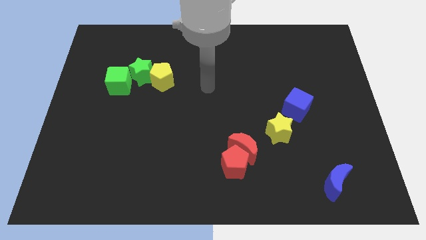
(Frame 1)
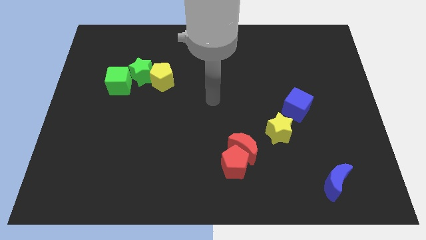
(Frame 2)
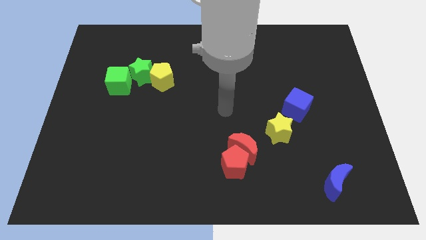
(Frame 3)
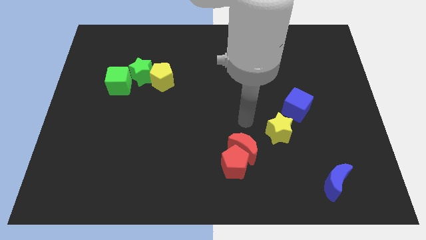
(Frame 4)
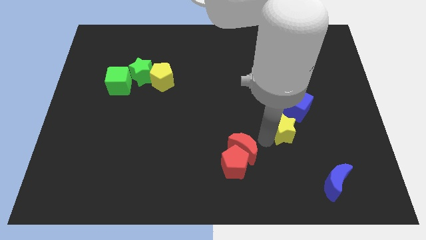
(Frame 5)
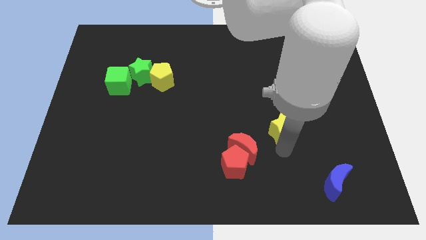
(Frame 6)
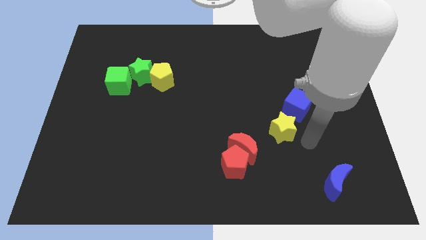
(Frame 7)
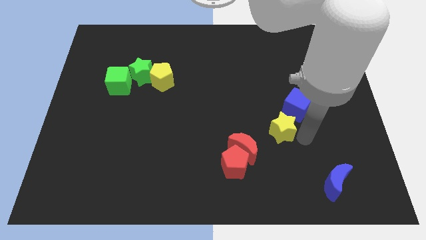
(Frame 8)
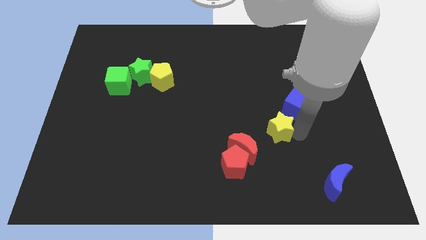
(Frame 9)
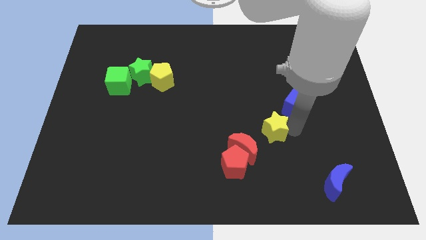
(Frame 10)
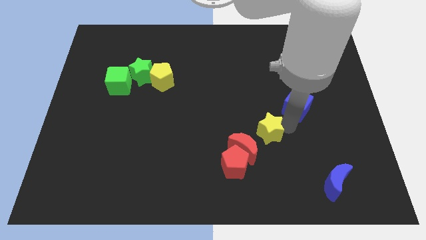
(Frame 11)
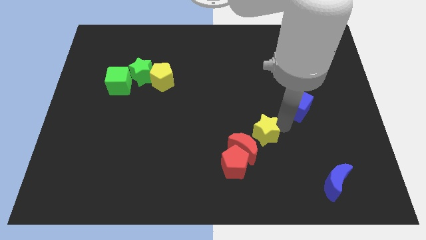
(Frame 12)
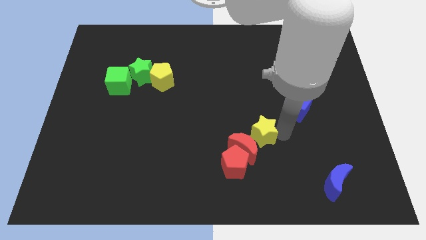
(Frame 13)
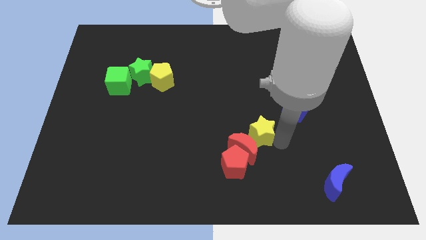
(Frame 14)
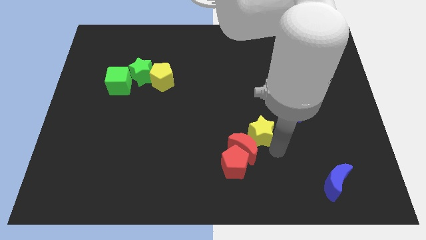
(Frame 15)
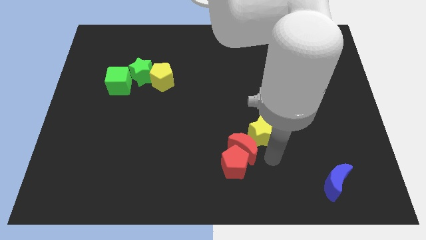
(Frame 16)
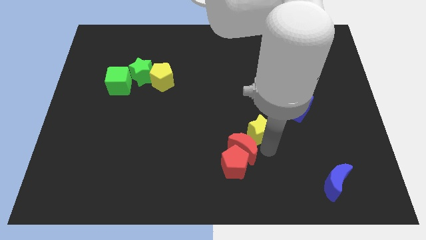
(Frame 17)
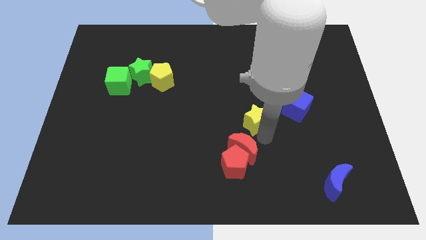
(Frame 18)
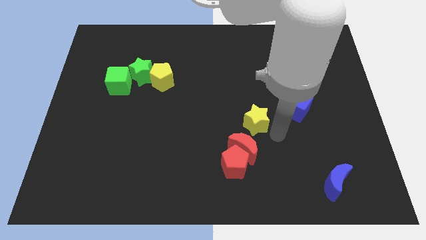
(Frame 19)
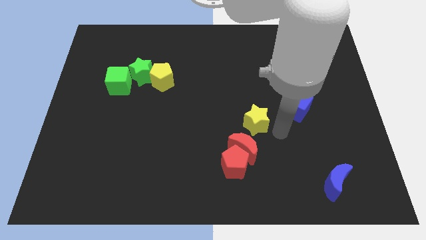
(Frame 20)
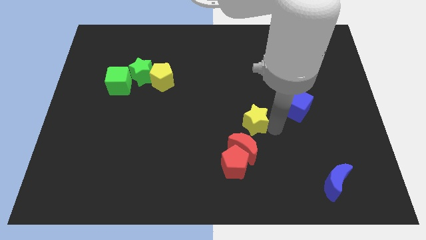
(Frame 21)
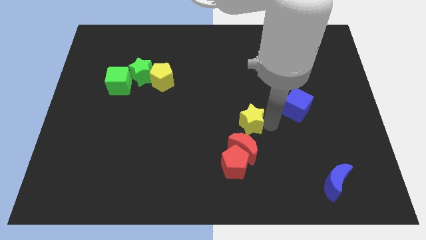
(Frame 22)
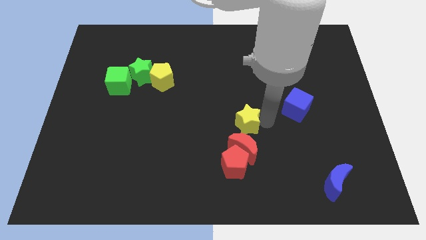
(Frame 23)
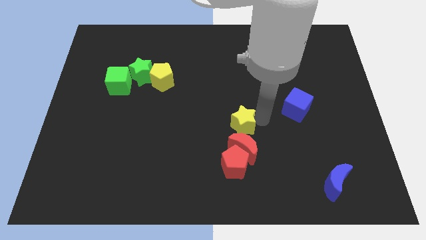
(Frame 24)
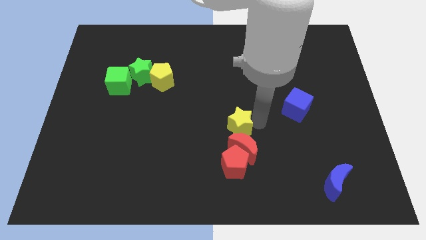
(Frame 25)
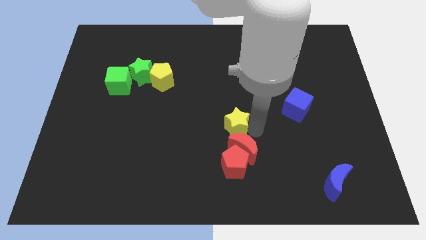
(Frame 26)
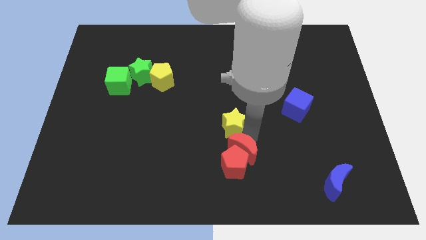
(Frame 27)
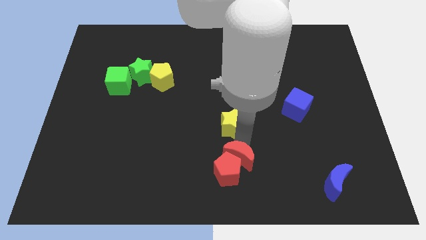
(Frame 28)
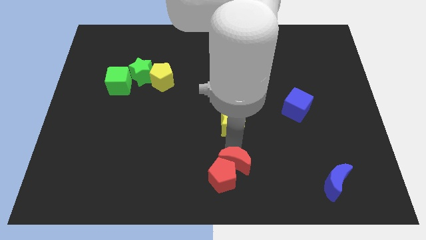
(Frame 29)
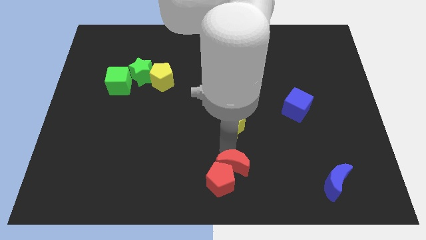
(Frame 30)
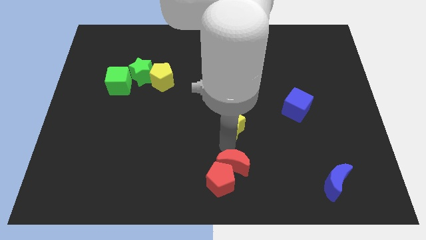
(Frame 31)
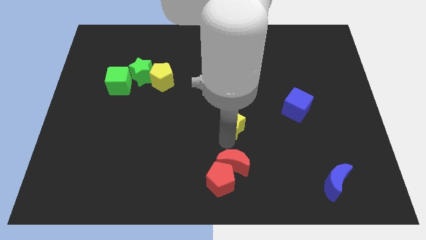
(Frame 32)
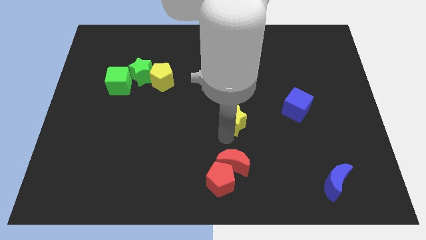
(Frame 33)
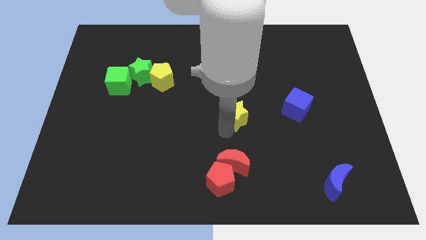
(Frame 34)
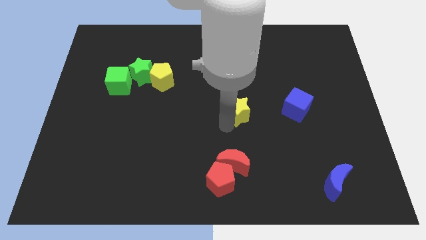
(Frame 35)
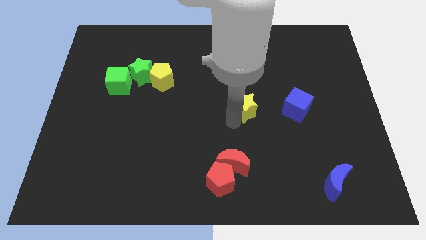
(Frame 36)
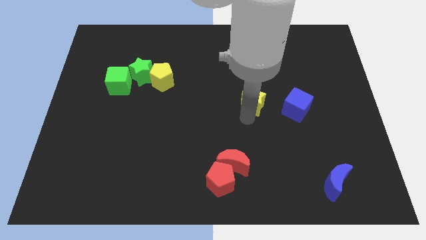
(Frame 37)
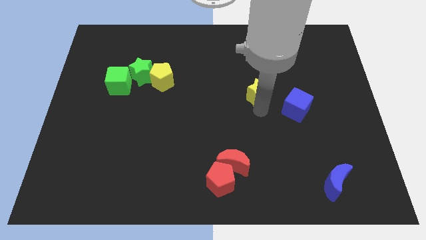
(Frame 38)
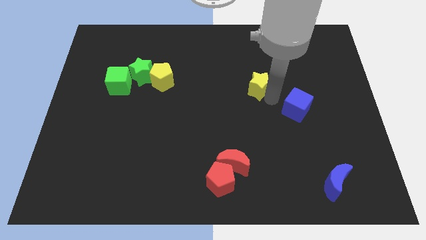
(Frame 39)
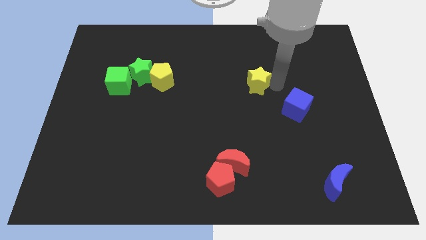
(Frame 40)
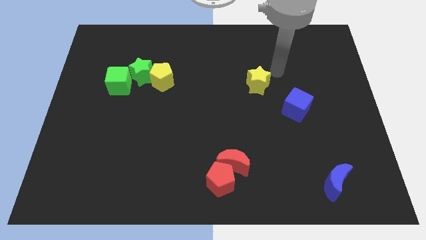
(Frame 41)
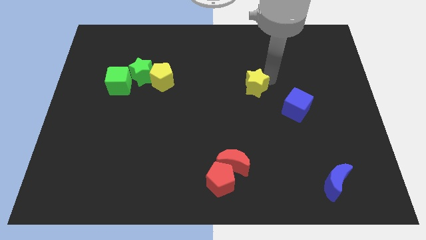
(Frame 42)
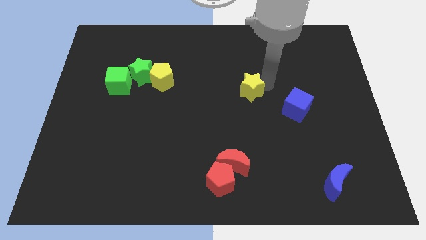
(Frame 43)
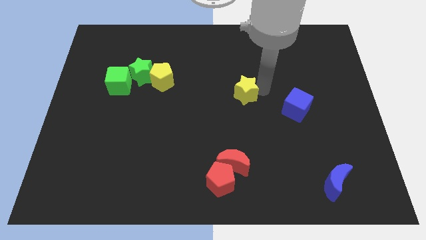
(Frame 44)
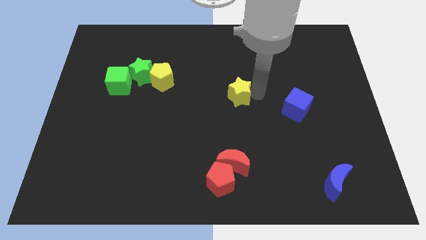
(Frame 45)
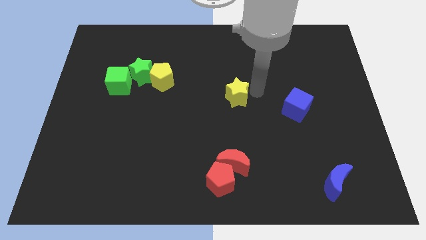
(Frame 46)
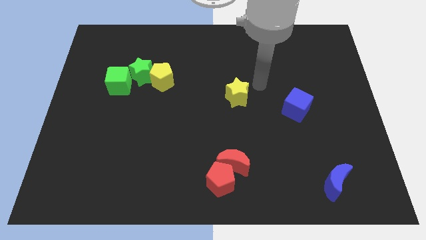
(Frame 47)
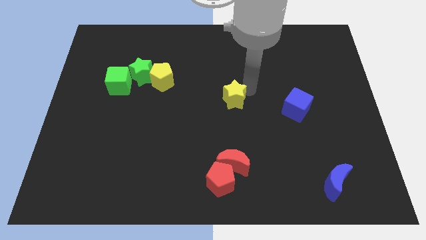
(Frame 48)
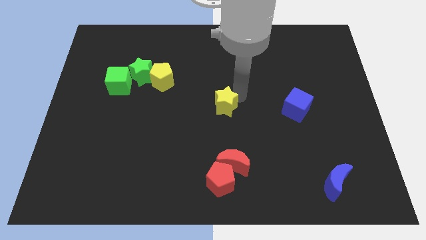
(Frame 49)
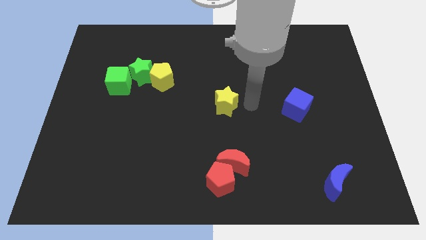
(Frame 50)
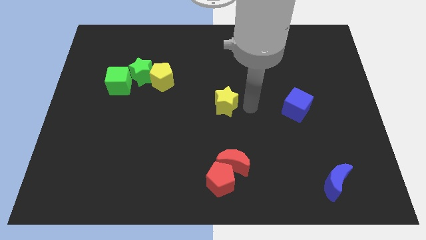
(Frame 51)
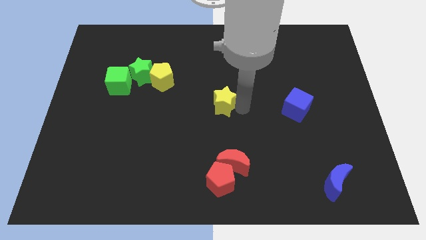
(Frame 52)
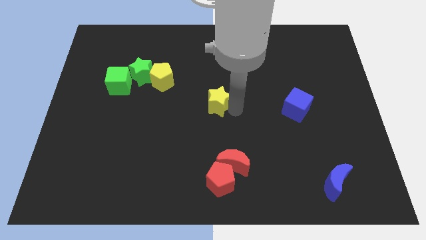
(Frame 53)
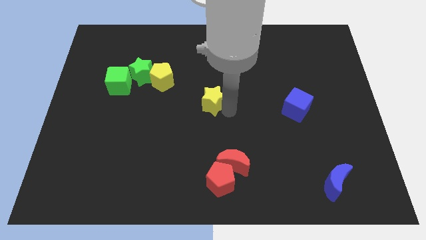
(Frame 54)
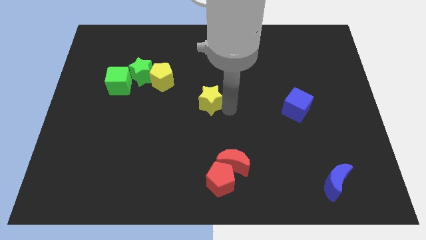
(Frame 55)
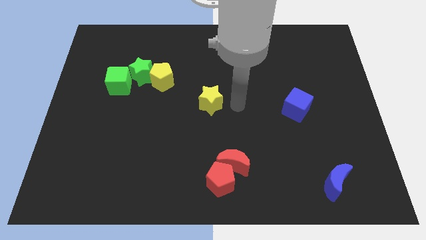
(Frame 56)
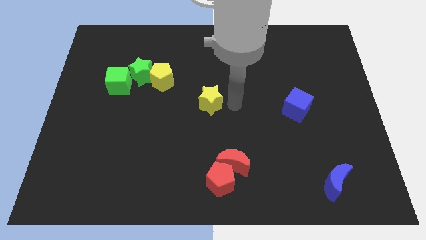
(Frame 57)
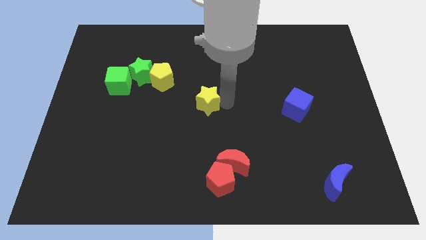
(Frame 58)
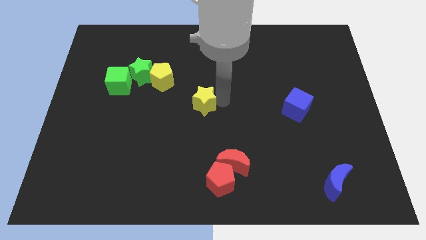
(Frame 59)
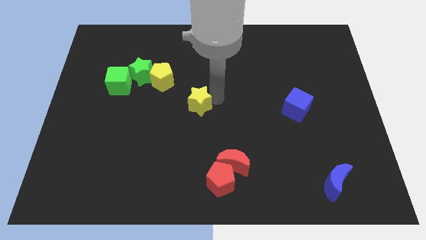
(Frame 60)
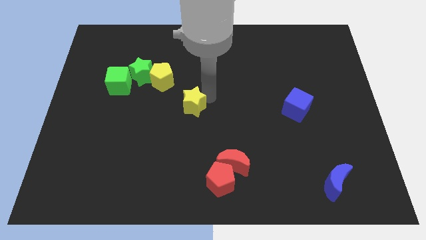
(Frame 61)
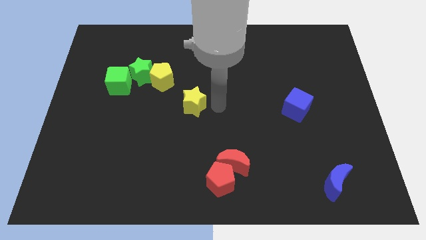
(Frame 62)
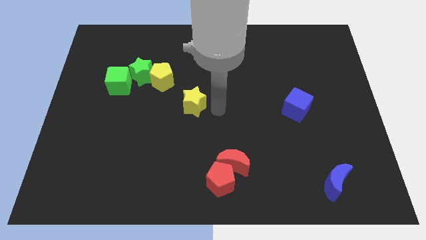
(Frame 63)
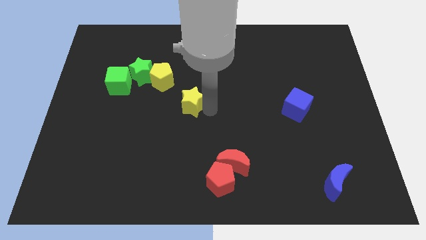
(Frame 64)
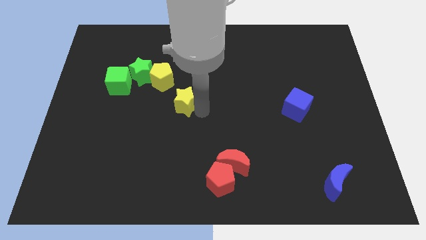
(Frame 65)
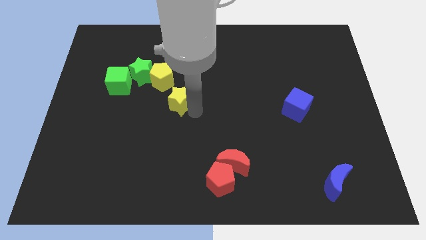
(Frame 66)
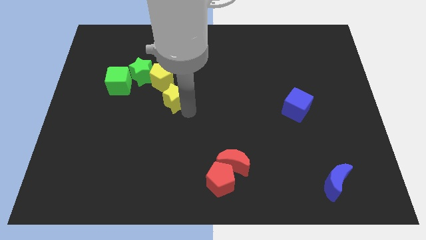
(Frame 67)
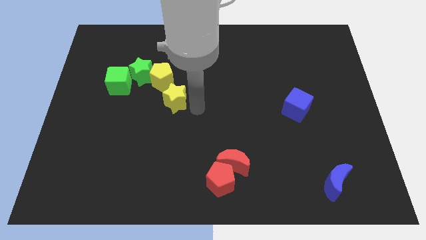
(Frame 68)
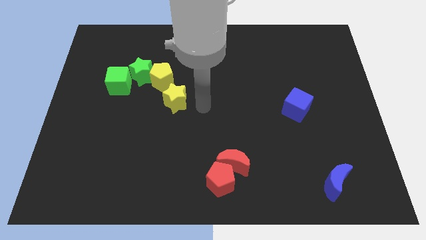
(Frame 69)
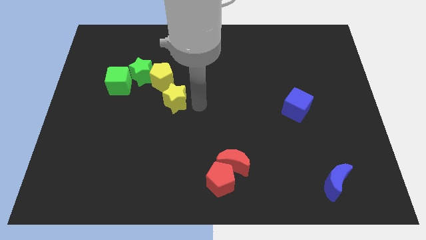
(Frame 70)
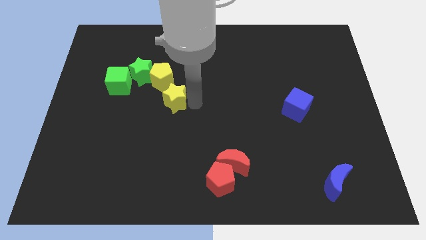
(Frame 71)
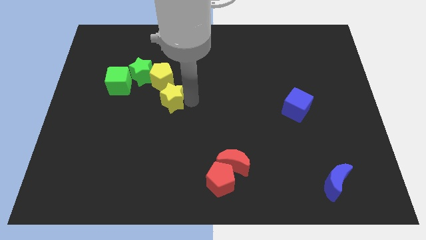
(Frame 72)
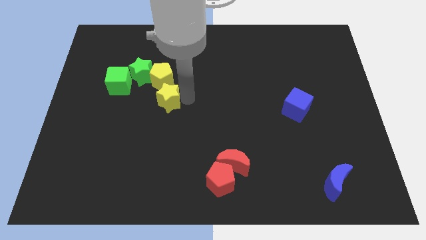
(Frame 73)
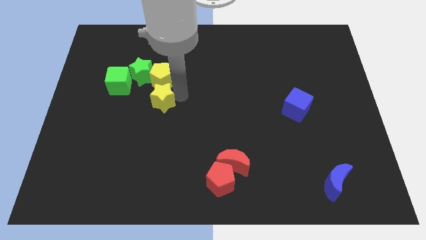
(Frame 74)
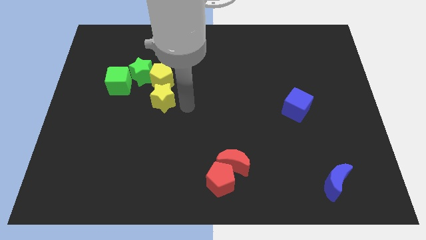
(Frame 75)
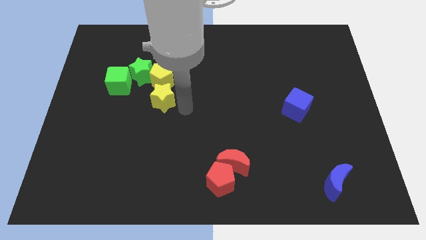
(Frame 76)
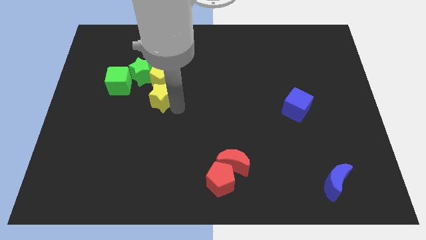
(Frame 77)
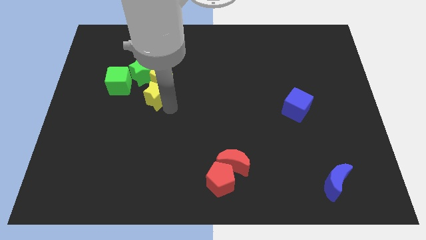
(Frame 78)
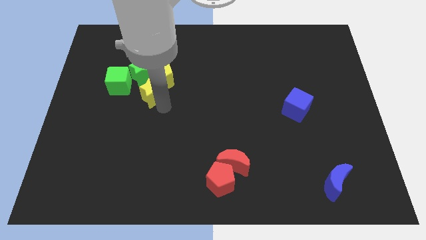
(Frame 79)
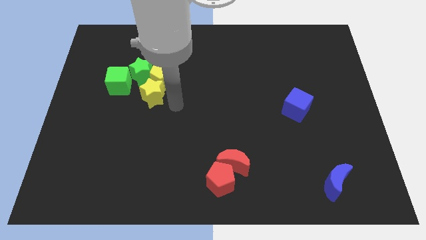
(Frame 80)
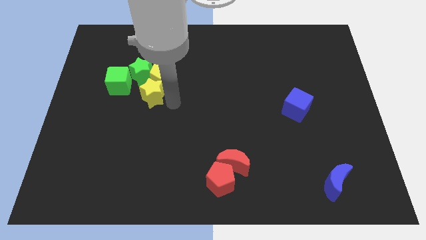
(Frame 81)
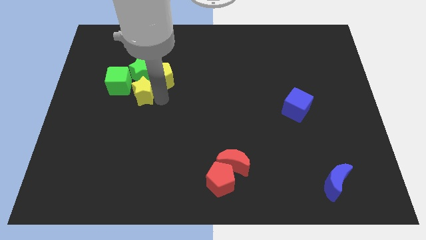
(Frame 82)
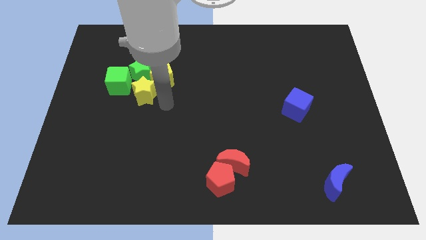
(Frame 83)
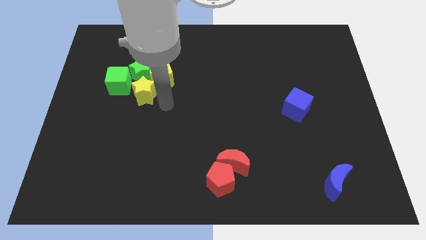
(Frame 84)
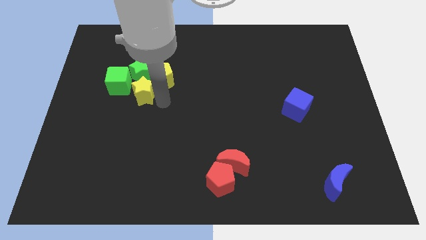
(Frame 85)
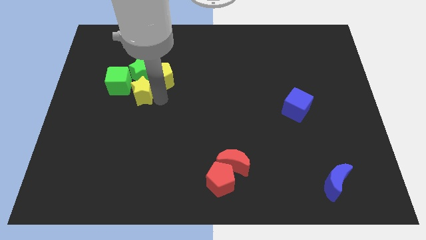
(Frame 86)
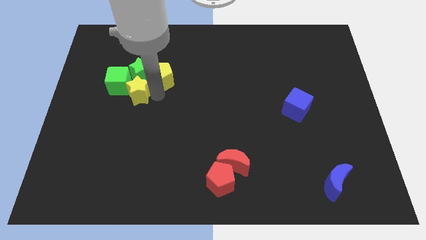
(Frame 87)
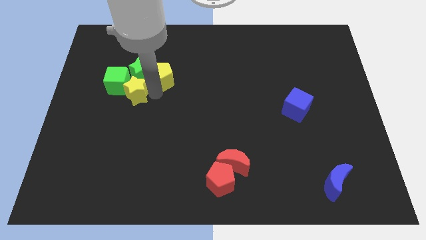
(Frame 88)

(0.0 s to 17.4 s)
put the yellow star close to the green cube
